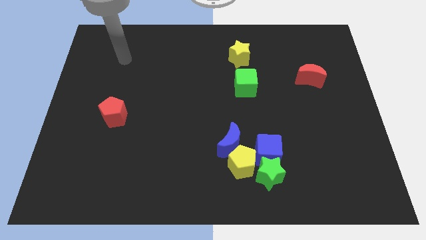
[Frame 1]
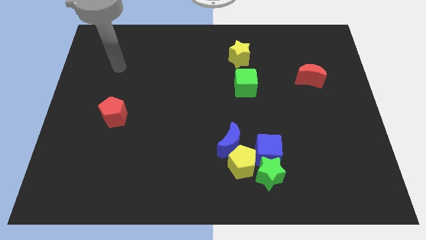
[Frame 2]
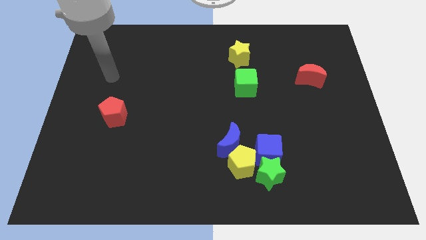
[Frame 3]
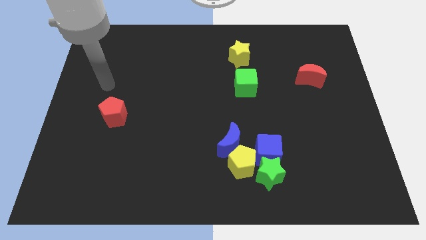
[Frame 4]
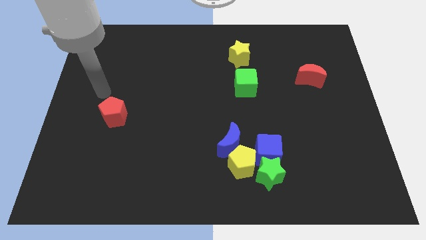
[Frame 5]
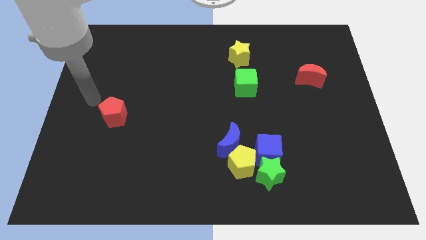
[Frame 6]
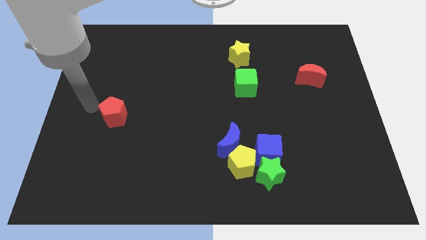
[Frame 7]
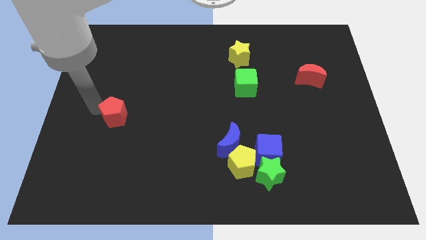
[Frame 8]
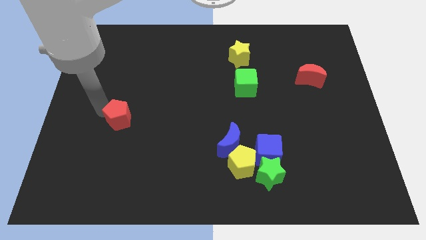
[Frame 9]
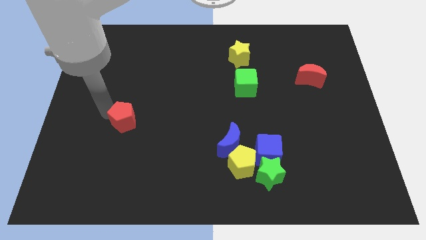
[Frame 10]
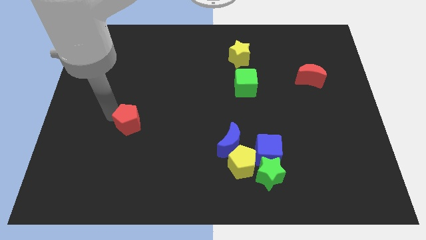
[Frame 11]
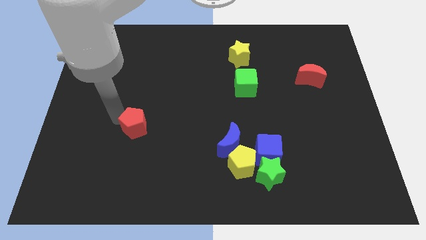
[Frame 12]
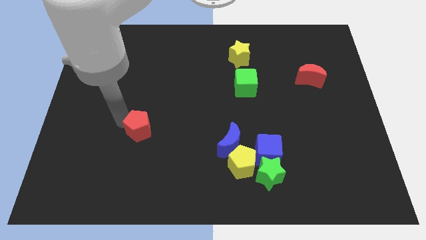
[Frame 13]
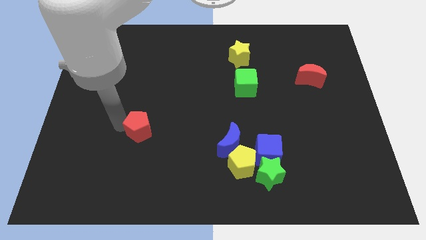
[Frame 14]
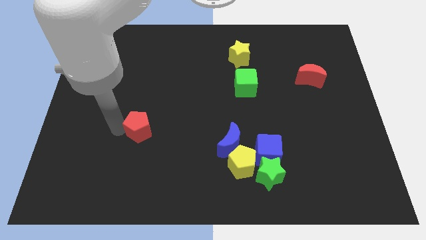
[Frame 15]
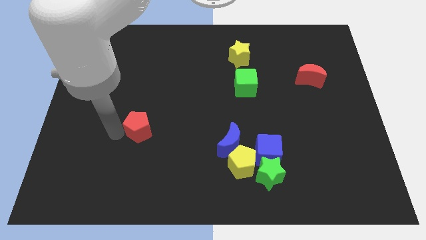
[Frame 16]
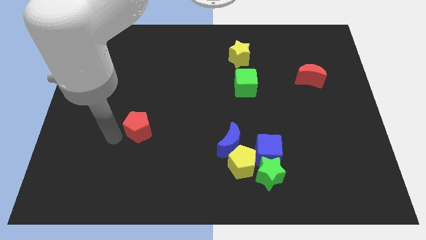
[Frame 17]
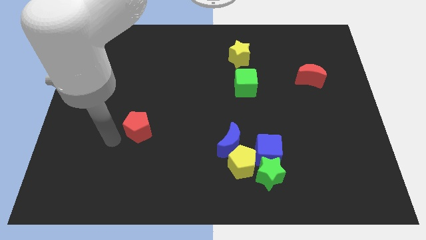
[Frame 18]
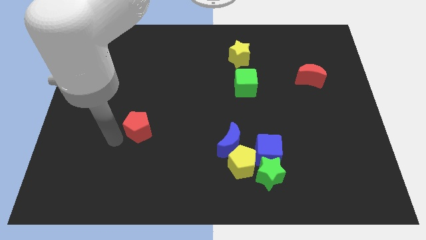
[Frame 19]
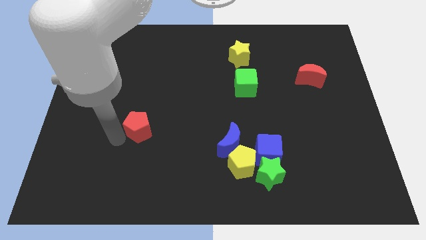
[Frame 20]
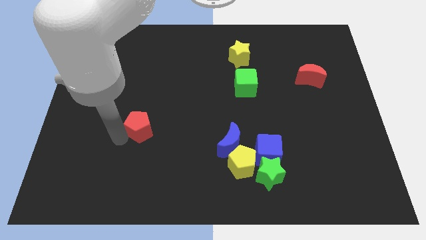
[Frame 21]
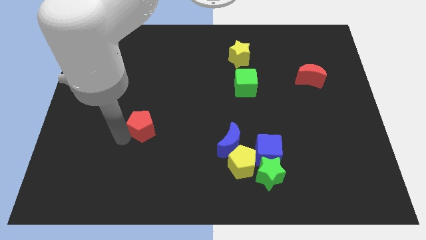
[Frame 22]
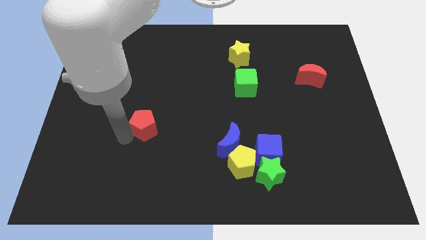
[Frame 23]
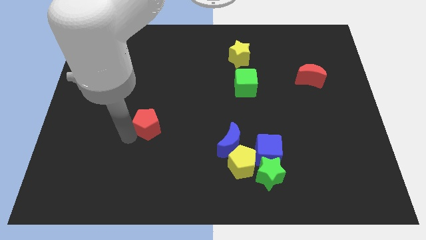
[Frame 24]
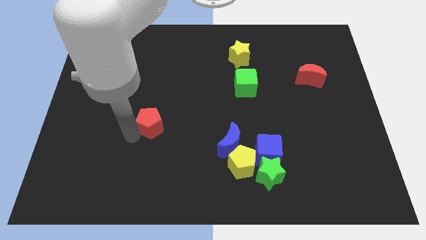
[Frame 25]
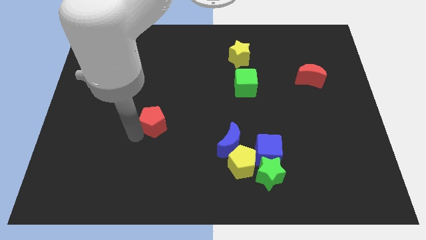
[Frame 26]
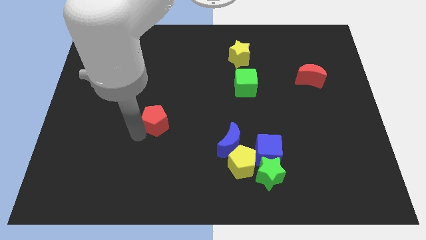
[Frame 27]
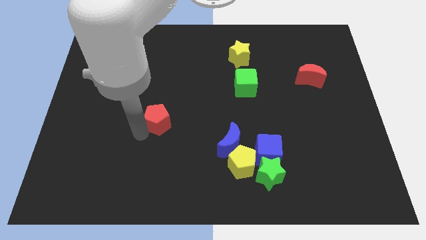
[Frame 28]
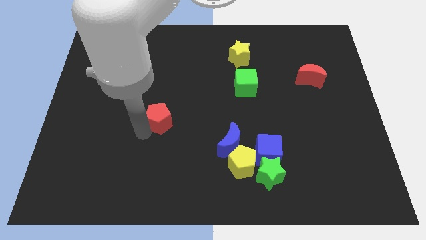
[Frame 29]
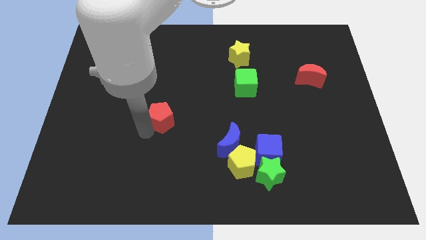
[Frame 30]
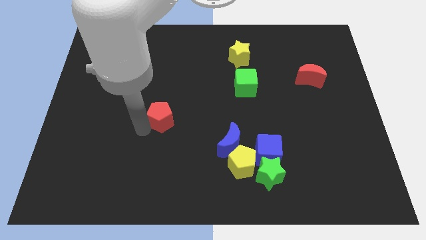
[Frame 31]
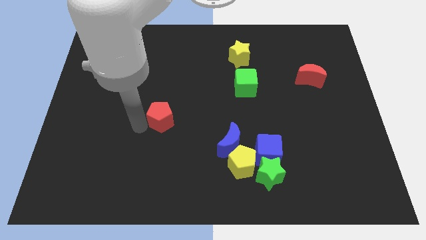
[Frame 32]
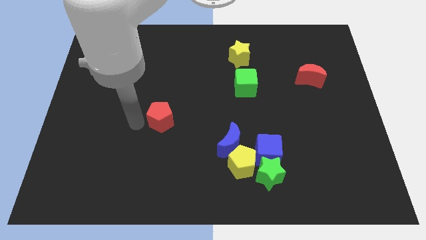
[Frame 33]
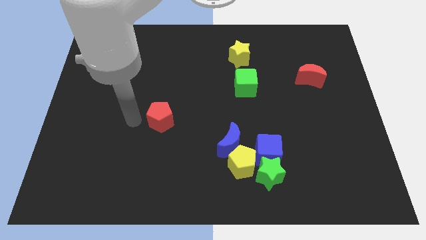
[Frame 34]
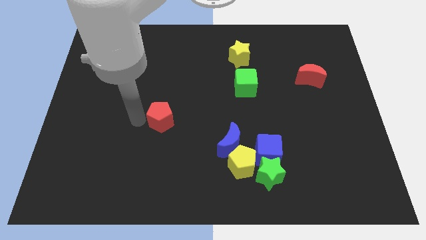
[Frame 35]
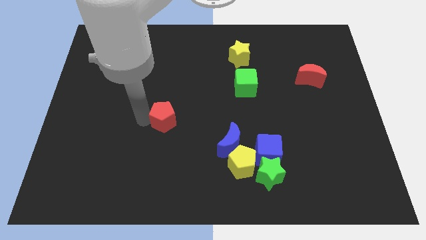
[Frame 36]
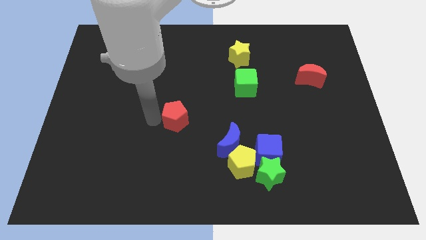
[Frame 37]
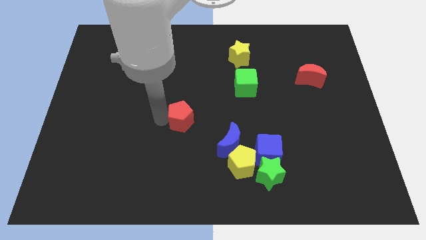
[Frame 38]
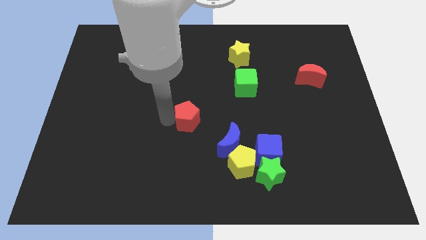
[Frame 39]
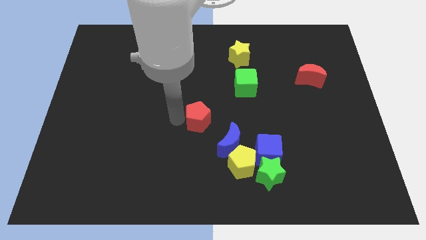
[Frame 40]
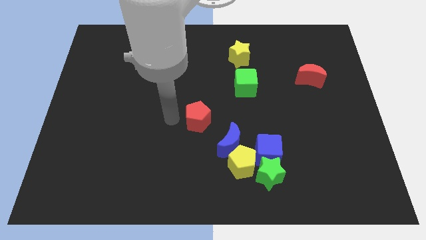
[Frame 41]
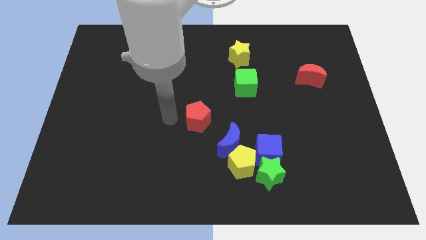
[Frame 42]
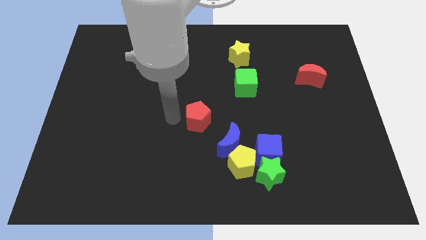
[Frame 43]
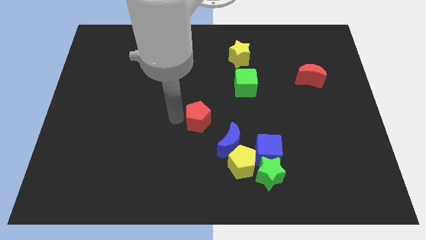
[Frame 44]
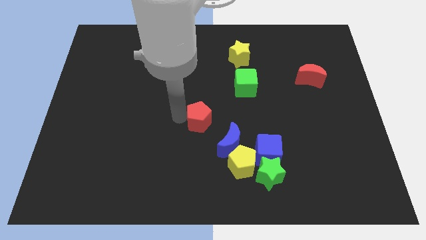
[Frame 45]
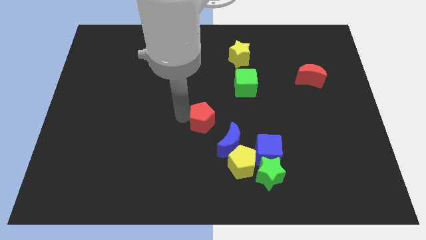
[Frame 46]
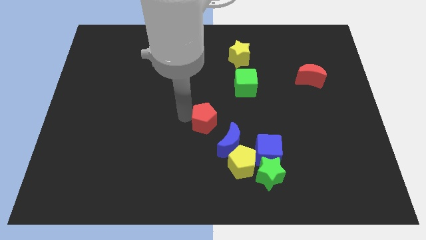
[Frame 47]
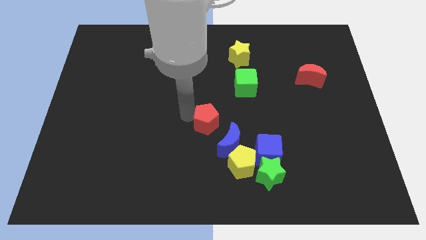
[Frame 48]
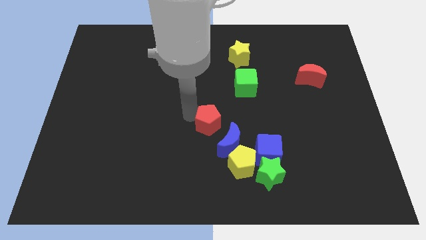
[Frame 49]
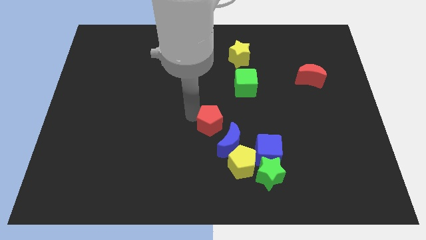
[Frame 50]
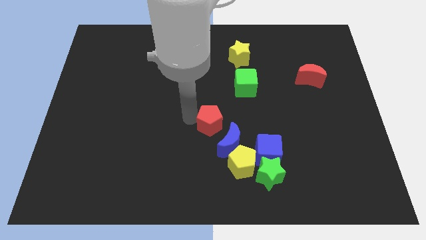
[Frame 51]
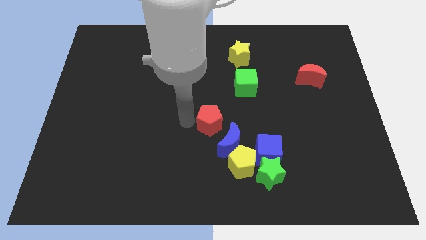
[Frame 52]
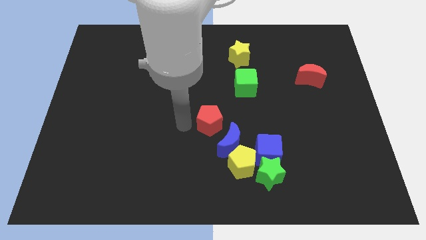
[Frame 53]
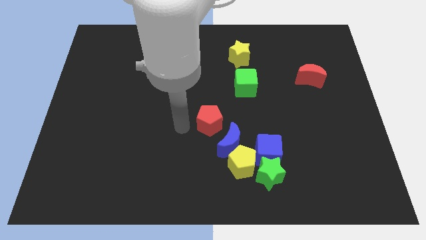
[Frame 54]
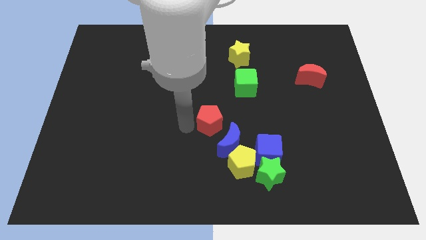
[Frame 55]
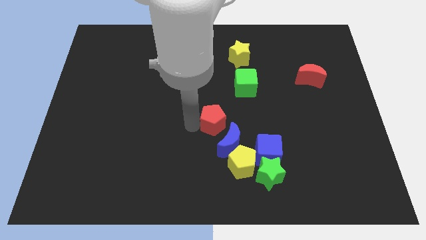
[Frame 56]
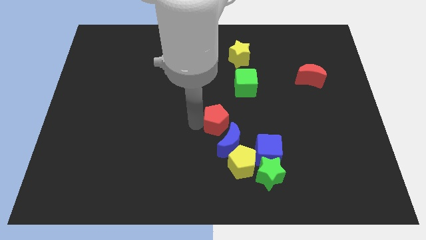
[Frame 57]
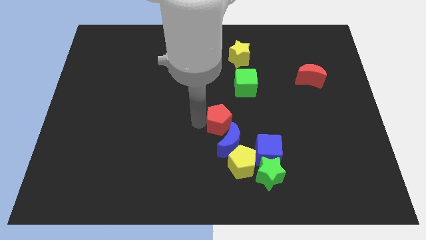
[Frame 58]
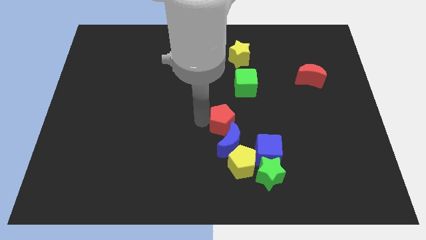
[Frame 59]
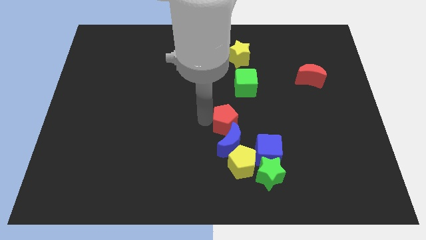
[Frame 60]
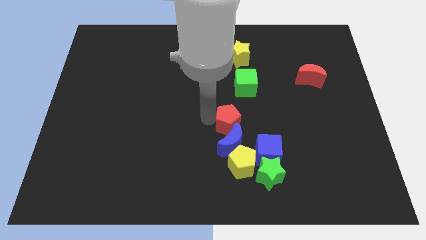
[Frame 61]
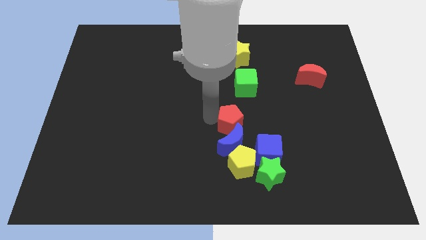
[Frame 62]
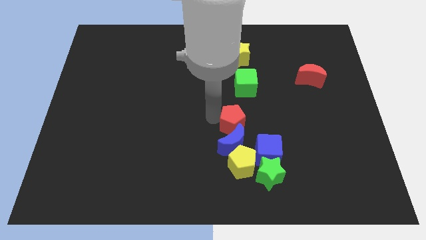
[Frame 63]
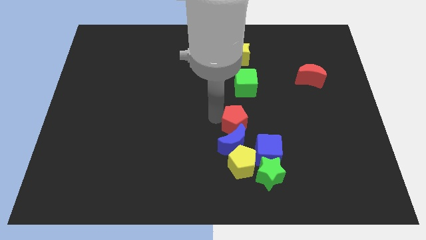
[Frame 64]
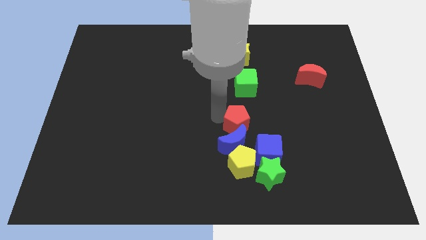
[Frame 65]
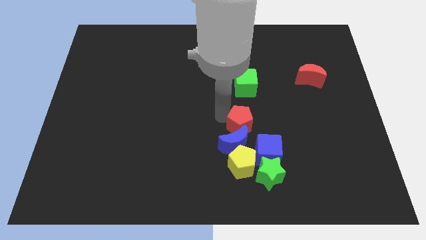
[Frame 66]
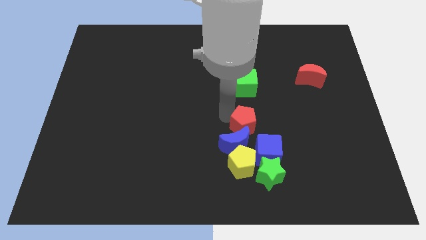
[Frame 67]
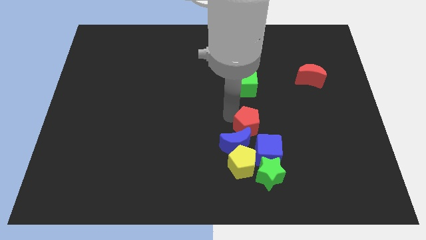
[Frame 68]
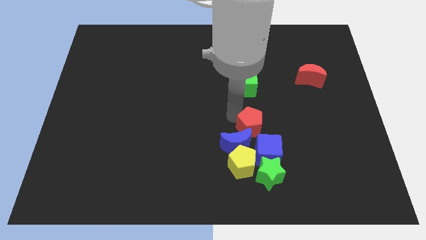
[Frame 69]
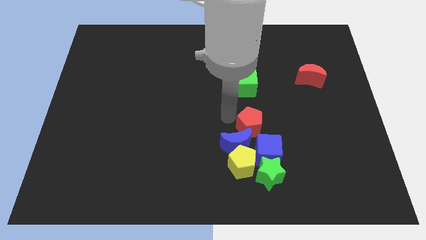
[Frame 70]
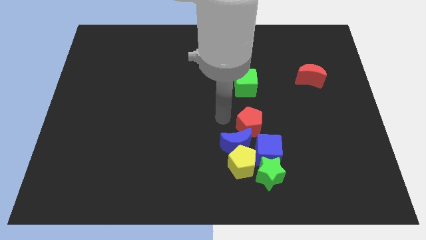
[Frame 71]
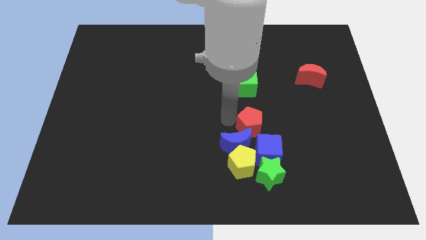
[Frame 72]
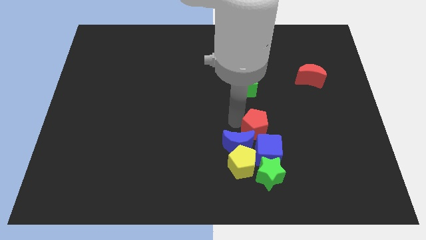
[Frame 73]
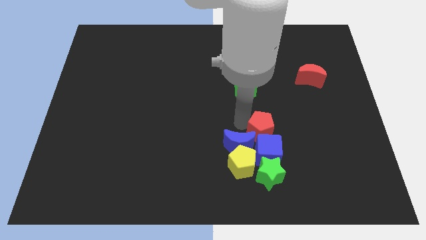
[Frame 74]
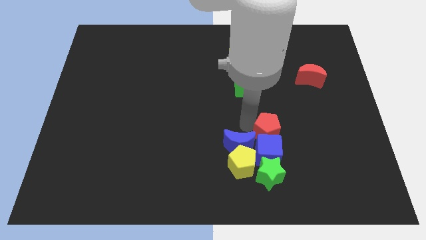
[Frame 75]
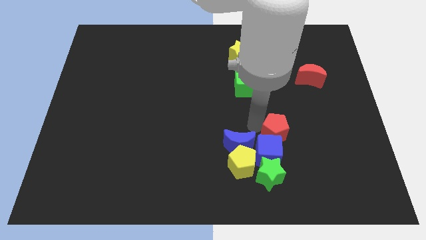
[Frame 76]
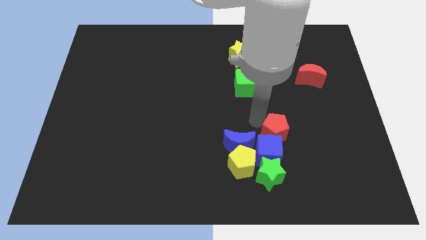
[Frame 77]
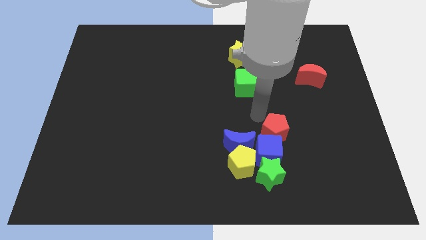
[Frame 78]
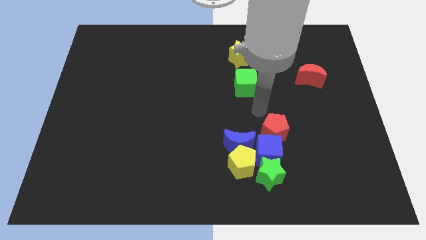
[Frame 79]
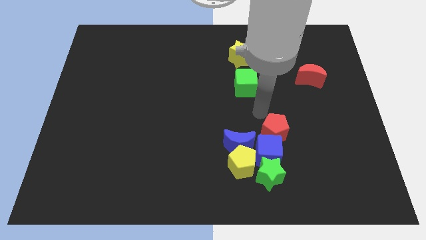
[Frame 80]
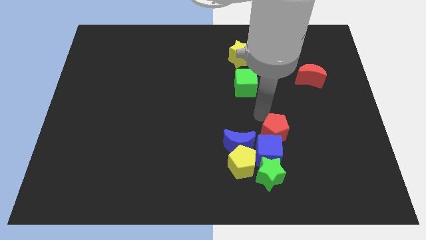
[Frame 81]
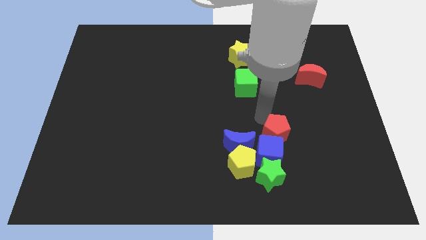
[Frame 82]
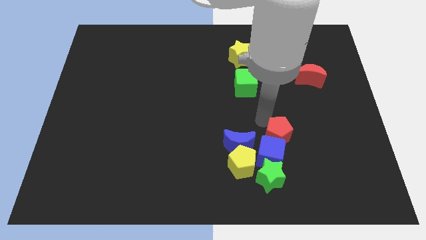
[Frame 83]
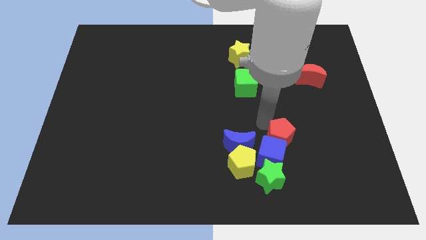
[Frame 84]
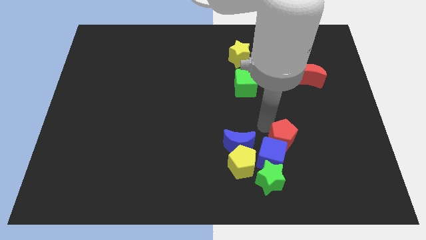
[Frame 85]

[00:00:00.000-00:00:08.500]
slide the red pentagon to the top right side of the green star
